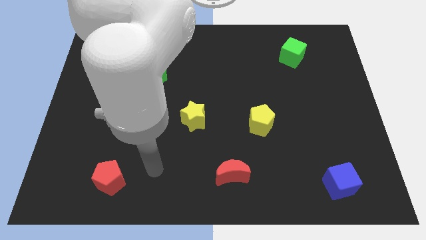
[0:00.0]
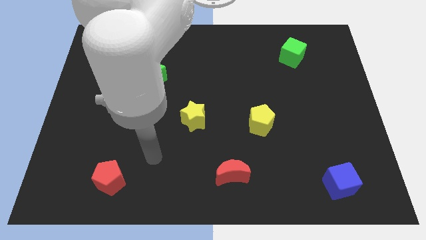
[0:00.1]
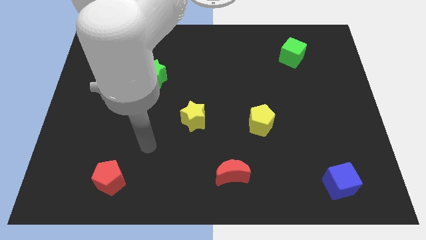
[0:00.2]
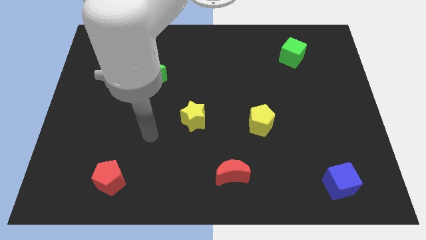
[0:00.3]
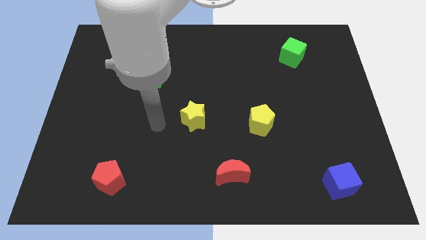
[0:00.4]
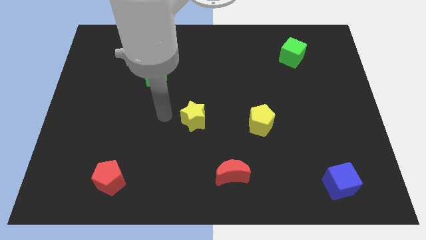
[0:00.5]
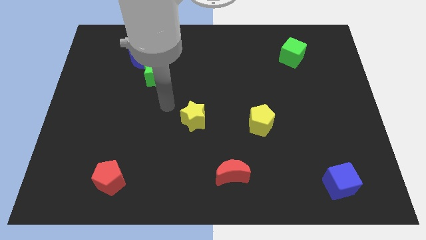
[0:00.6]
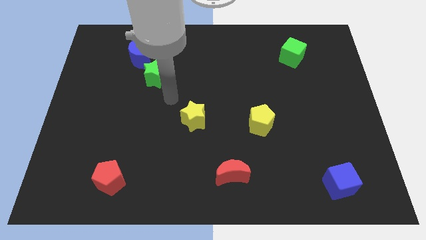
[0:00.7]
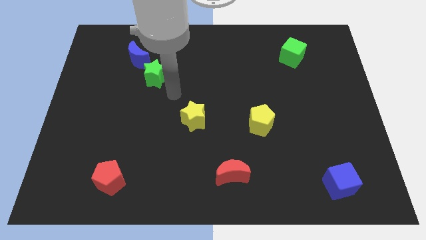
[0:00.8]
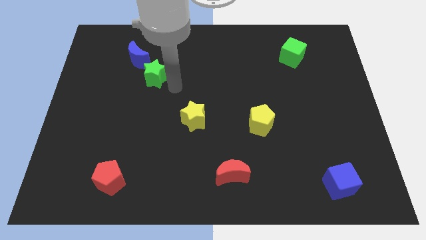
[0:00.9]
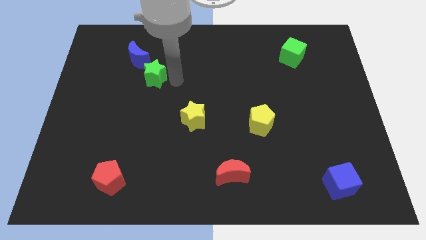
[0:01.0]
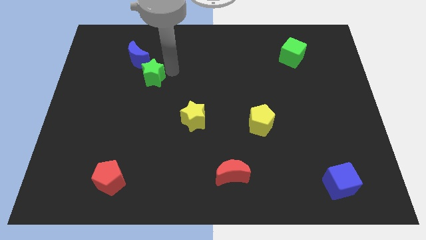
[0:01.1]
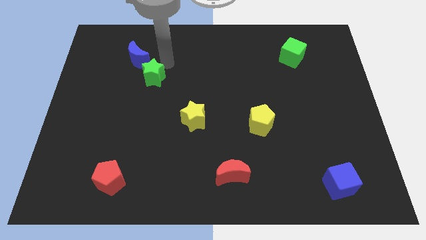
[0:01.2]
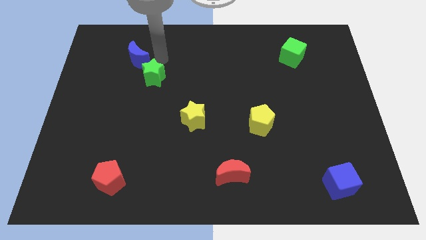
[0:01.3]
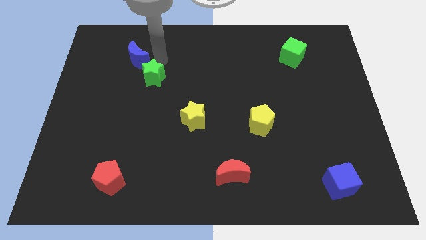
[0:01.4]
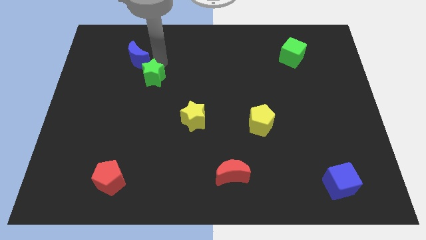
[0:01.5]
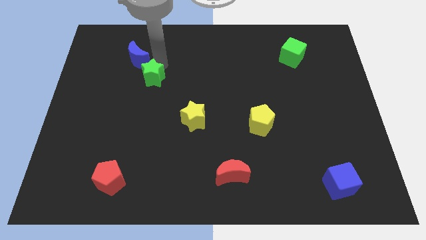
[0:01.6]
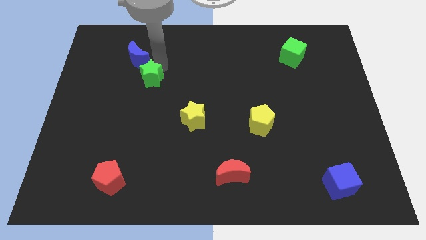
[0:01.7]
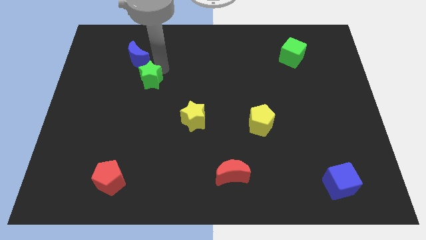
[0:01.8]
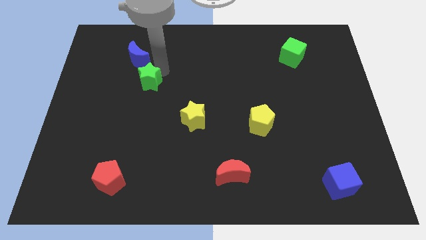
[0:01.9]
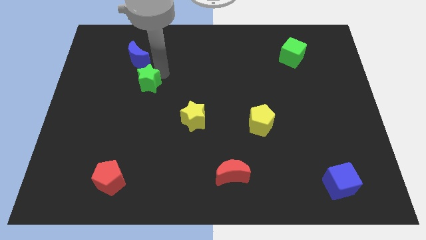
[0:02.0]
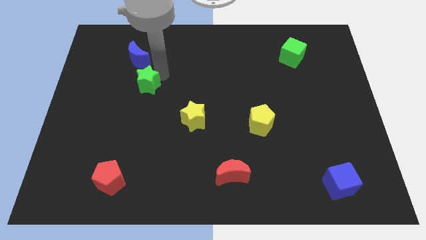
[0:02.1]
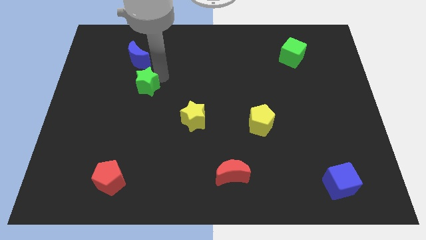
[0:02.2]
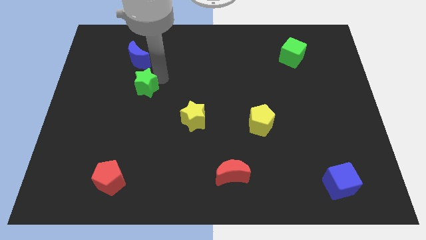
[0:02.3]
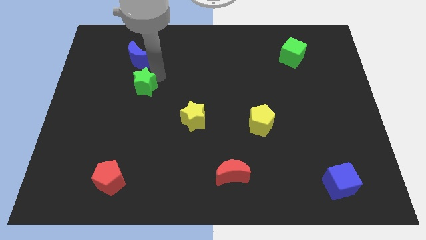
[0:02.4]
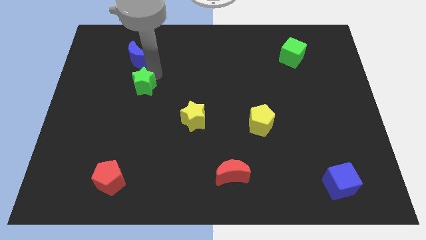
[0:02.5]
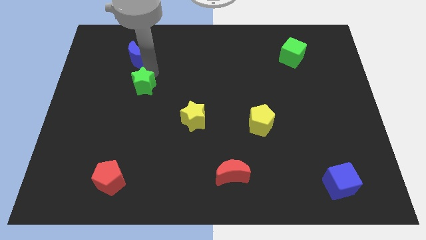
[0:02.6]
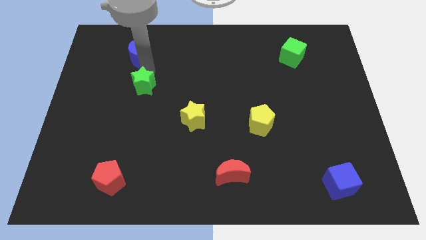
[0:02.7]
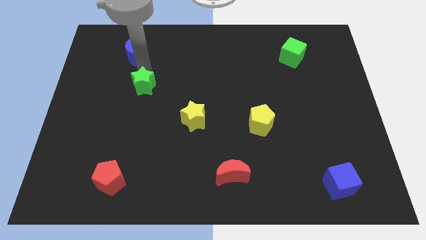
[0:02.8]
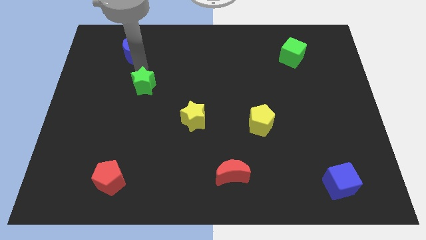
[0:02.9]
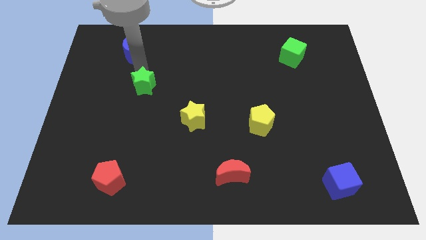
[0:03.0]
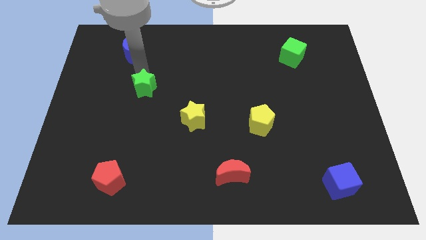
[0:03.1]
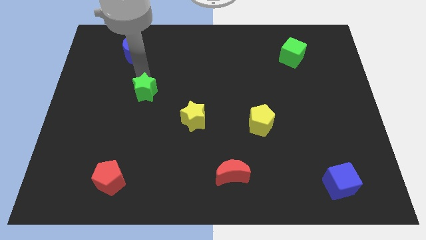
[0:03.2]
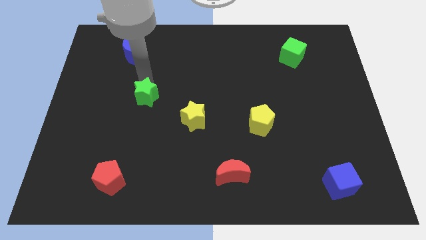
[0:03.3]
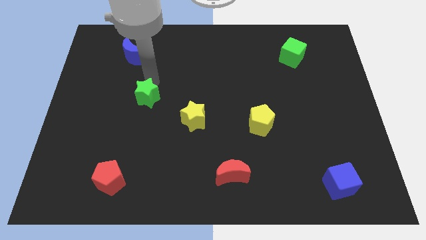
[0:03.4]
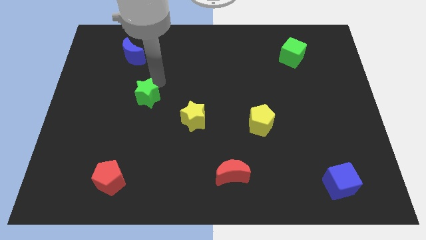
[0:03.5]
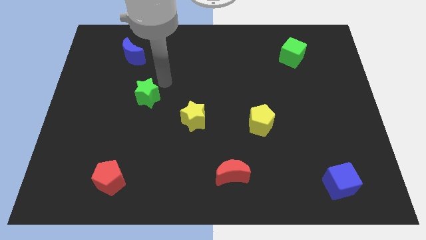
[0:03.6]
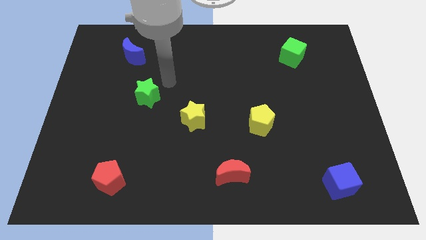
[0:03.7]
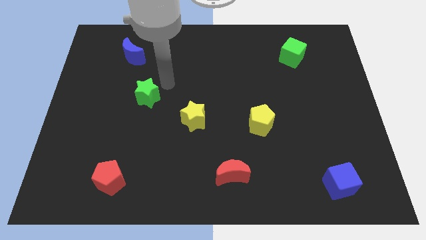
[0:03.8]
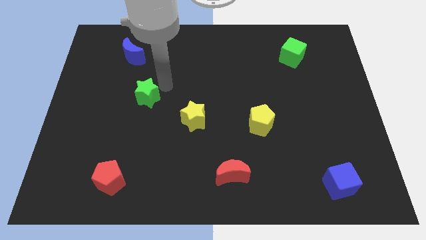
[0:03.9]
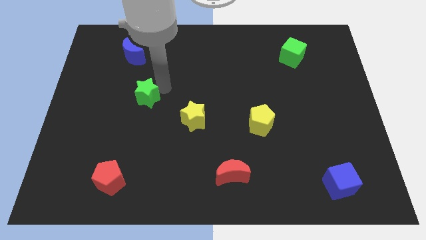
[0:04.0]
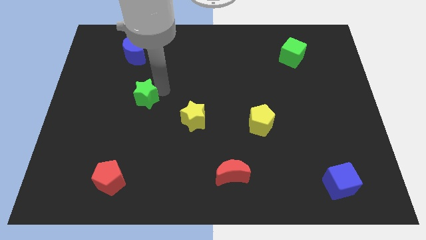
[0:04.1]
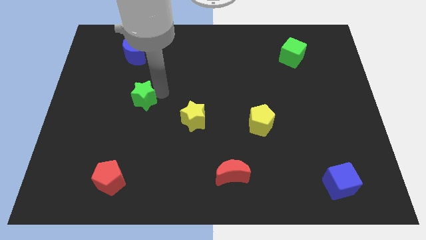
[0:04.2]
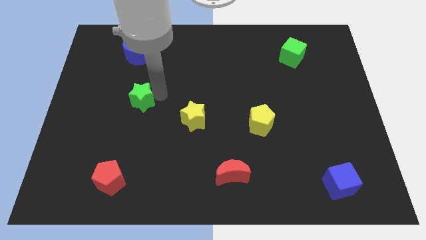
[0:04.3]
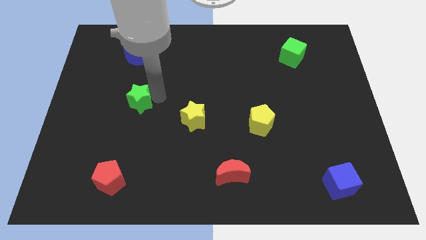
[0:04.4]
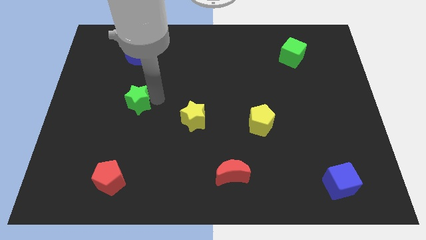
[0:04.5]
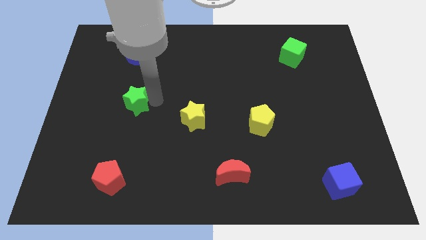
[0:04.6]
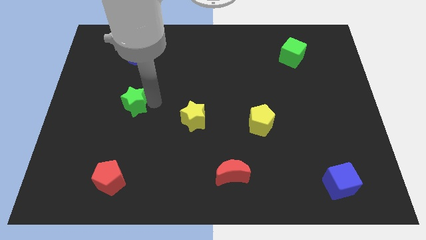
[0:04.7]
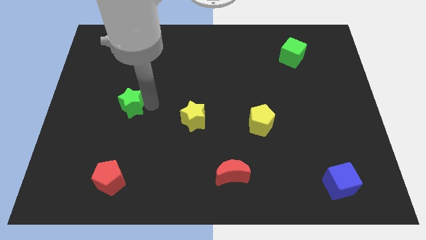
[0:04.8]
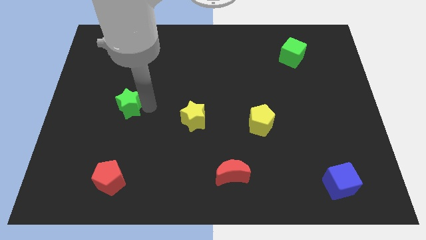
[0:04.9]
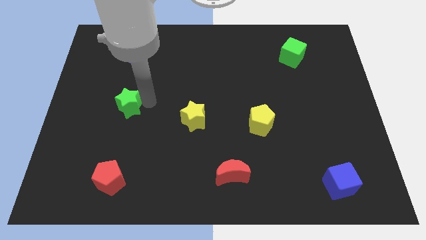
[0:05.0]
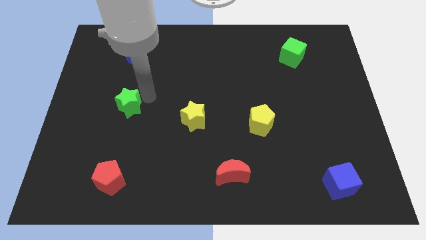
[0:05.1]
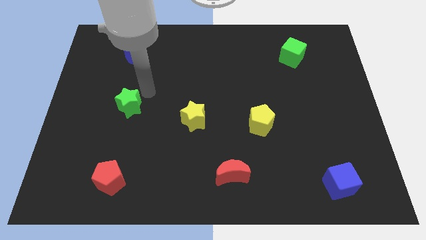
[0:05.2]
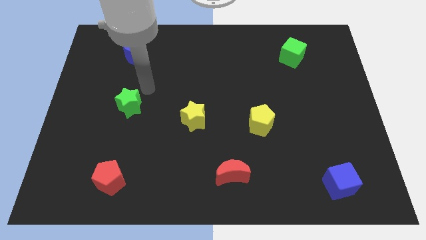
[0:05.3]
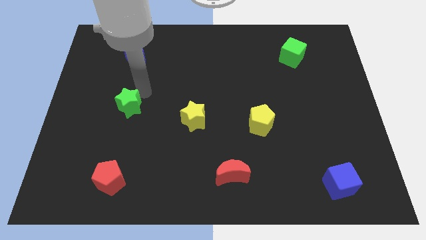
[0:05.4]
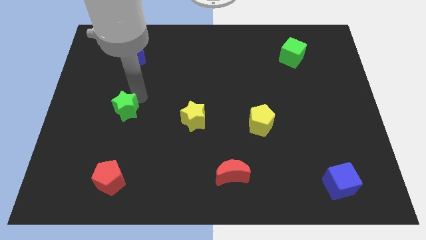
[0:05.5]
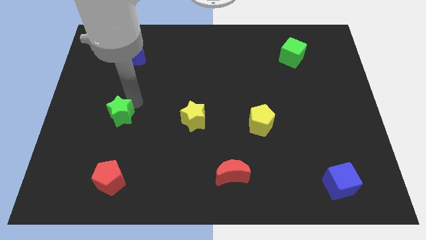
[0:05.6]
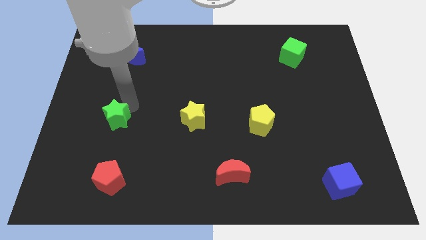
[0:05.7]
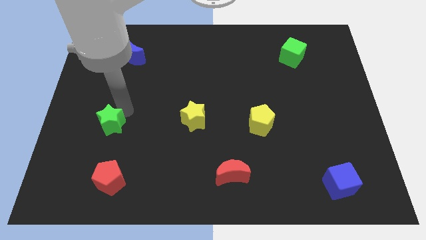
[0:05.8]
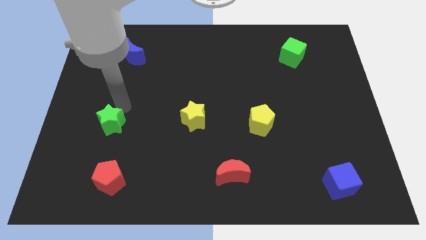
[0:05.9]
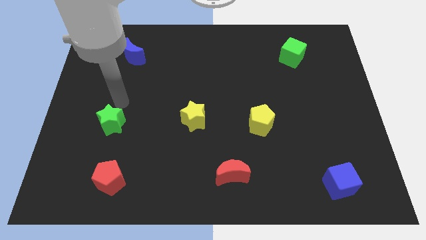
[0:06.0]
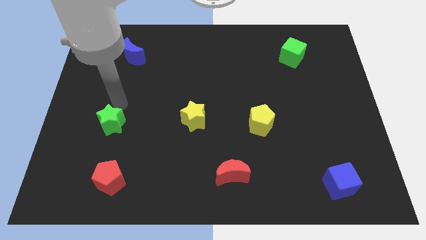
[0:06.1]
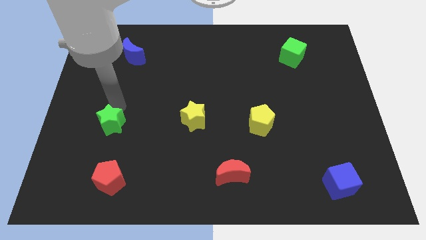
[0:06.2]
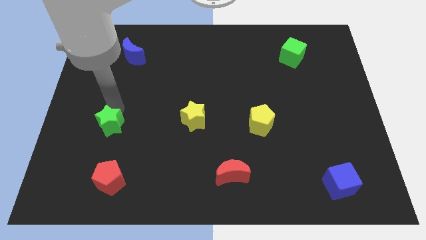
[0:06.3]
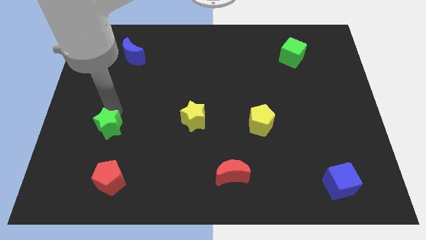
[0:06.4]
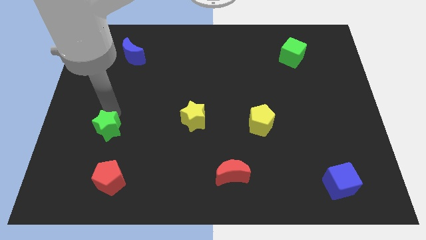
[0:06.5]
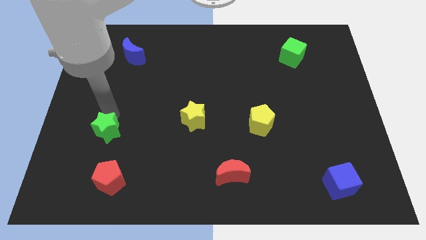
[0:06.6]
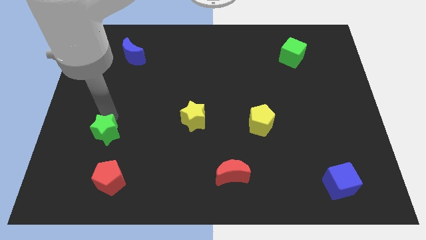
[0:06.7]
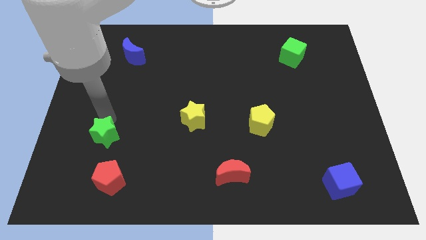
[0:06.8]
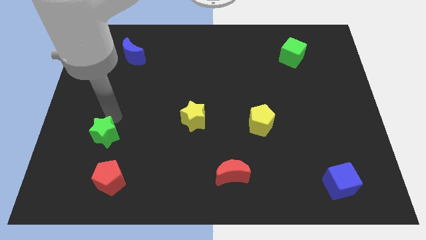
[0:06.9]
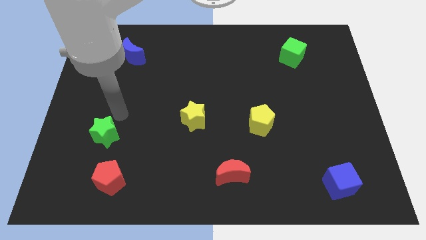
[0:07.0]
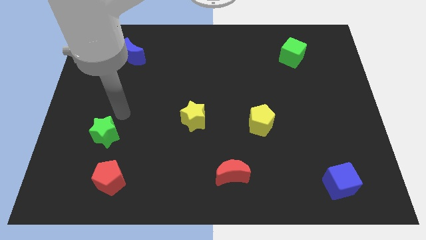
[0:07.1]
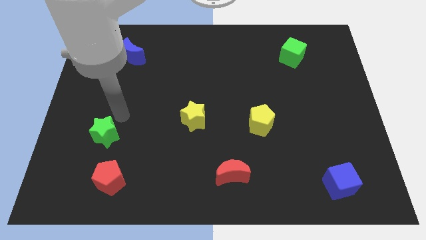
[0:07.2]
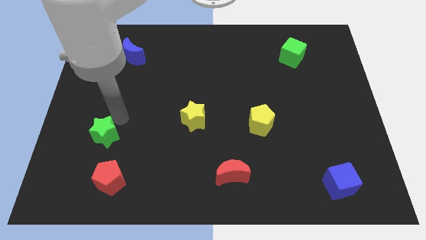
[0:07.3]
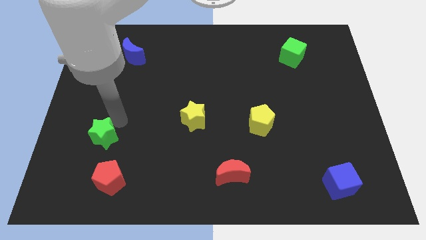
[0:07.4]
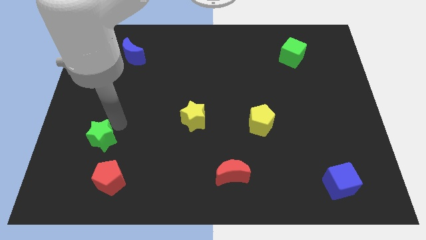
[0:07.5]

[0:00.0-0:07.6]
push the green star to the top left of the red pentagon
